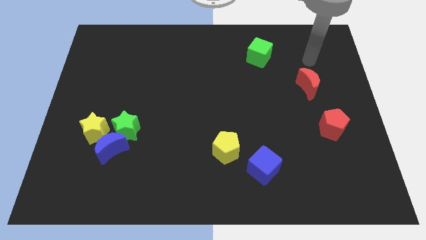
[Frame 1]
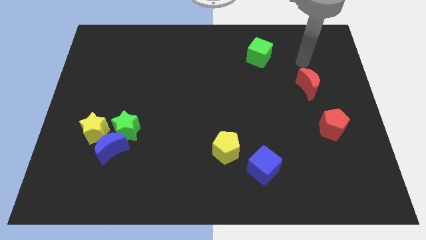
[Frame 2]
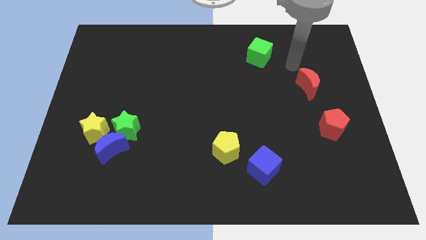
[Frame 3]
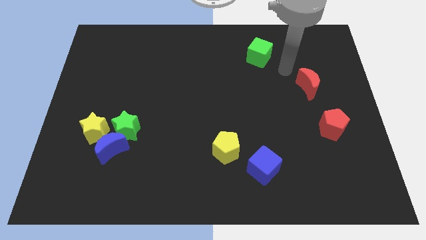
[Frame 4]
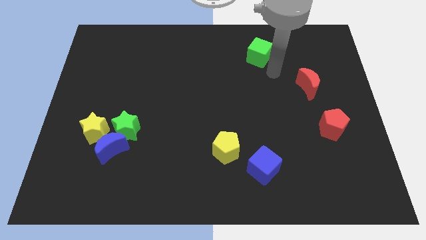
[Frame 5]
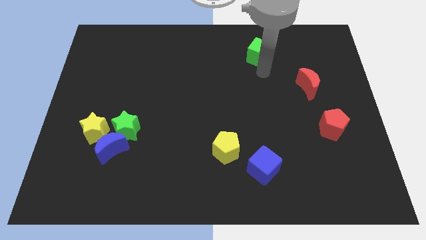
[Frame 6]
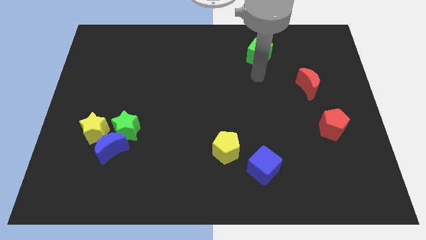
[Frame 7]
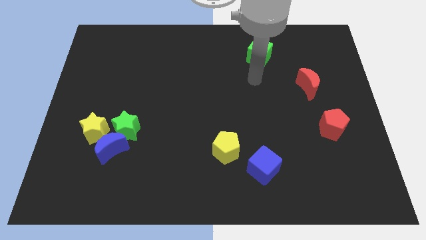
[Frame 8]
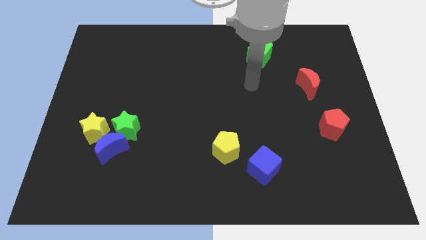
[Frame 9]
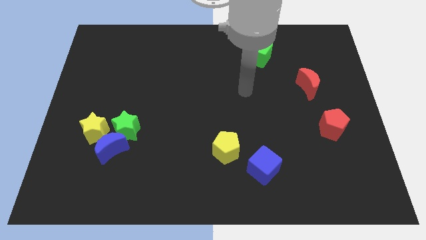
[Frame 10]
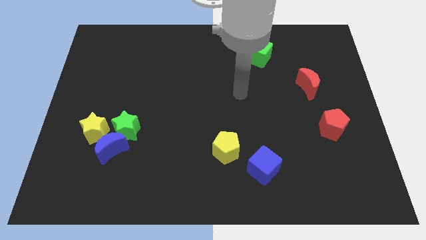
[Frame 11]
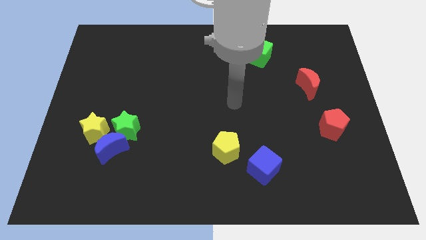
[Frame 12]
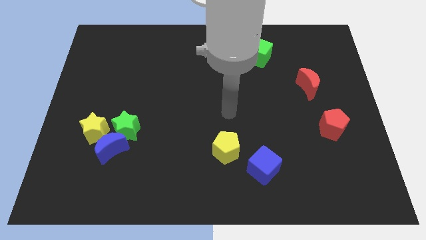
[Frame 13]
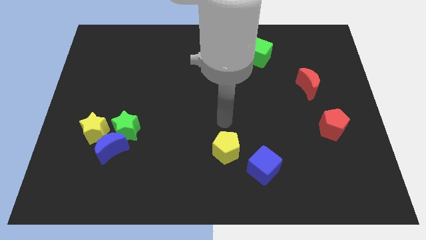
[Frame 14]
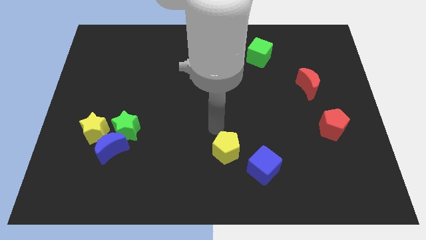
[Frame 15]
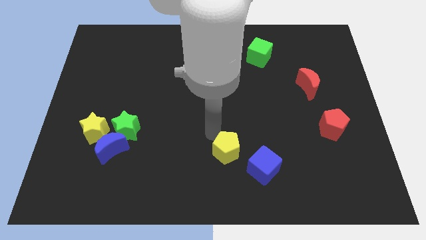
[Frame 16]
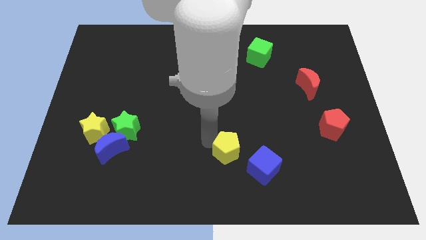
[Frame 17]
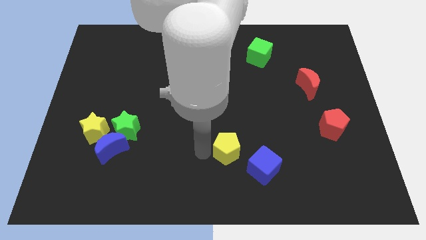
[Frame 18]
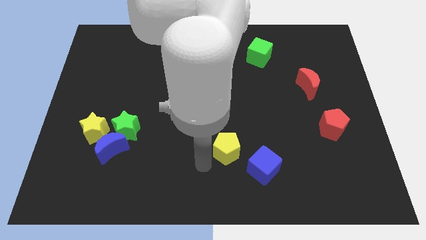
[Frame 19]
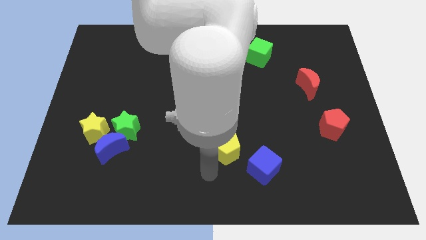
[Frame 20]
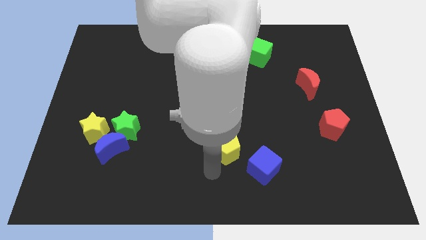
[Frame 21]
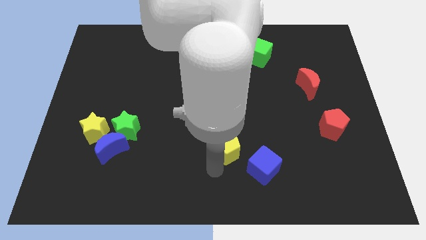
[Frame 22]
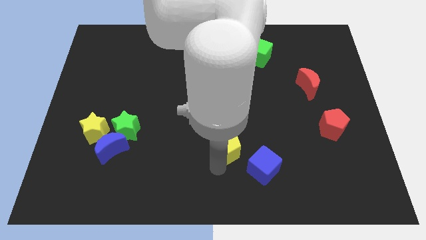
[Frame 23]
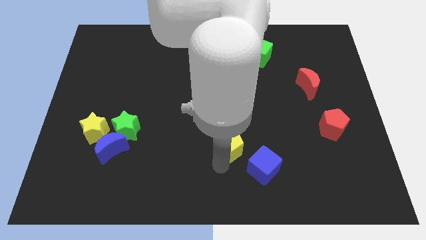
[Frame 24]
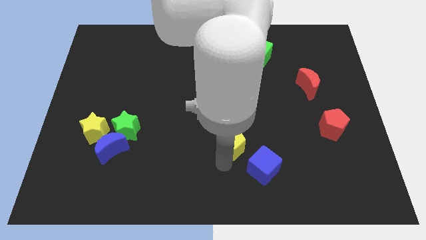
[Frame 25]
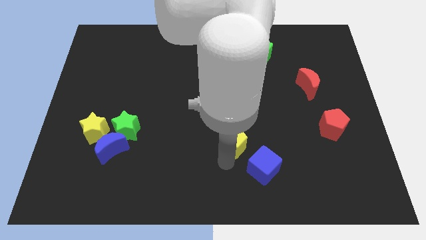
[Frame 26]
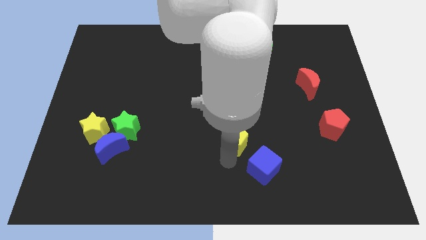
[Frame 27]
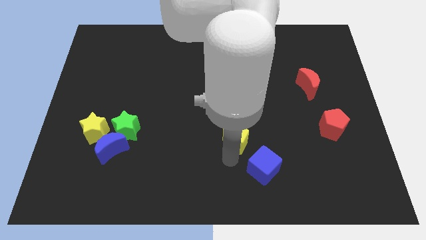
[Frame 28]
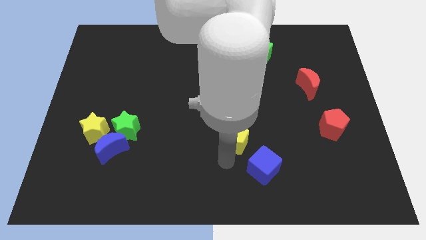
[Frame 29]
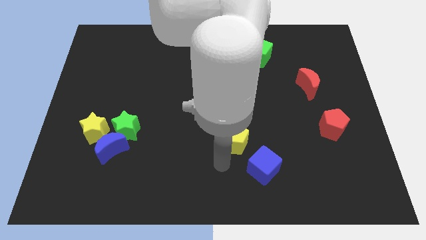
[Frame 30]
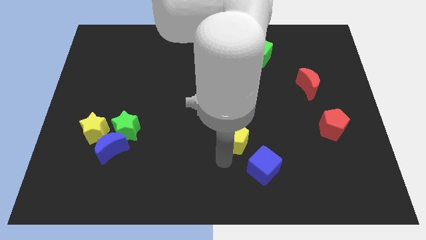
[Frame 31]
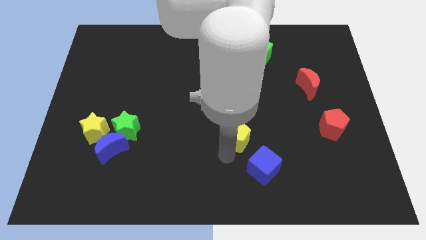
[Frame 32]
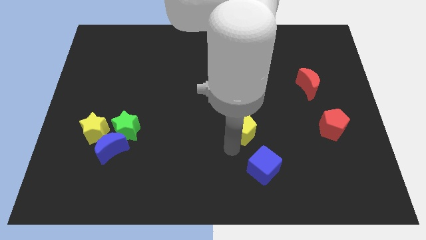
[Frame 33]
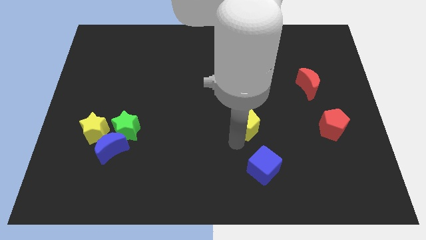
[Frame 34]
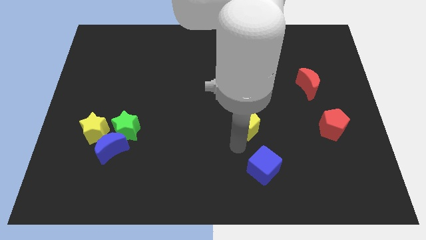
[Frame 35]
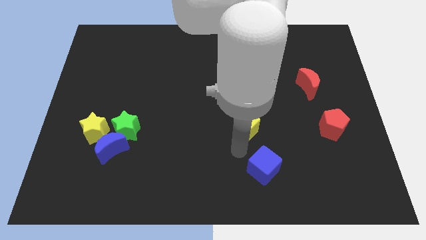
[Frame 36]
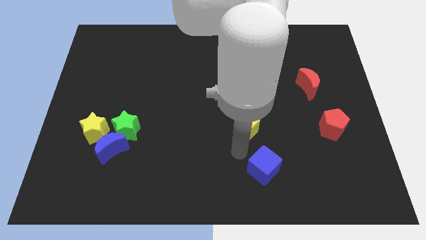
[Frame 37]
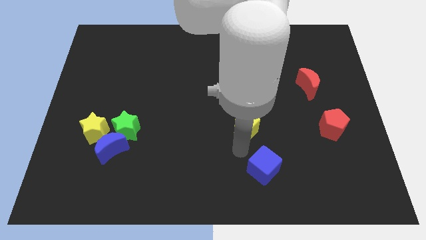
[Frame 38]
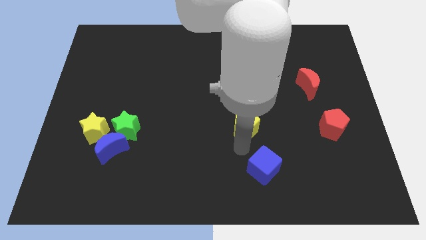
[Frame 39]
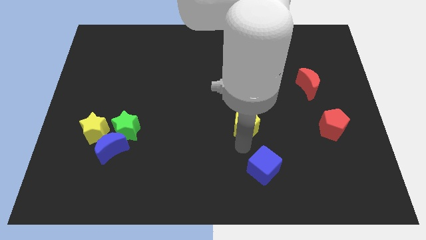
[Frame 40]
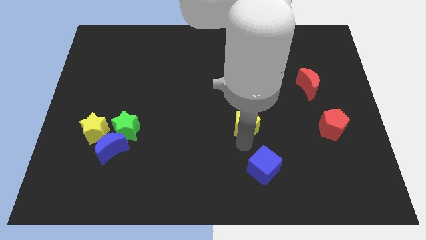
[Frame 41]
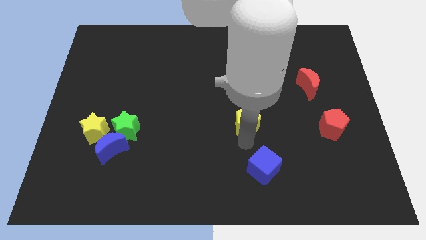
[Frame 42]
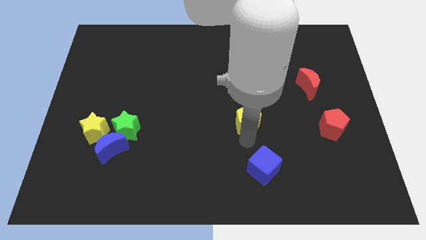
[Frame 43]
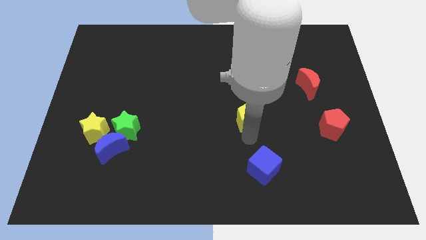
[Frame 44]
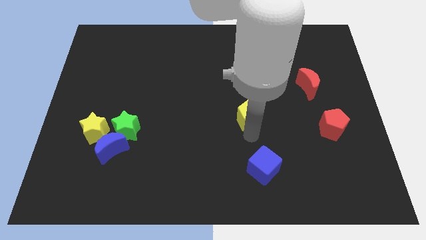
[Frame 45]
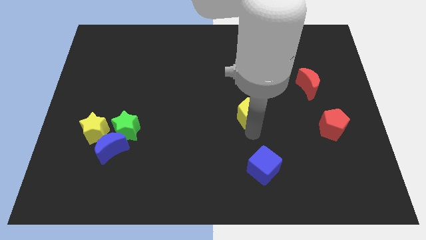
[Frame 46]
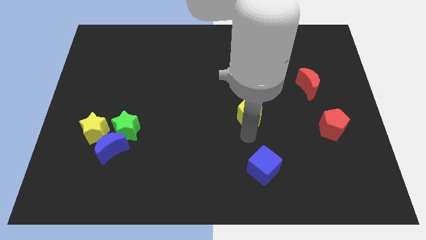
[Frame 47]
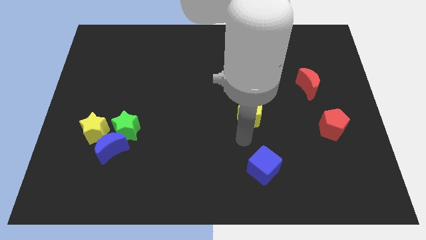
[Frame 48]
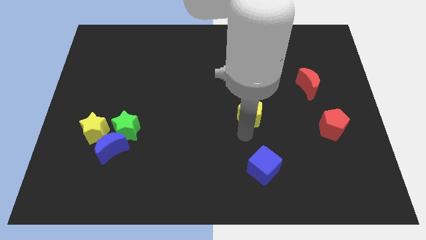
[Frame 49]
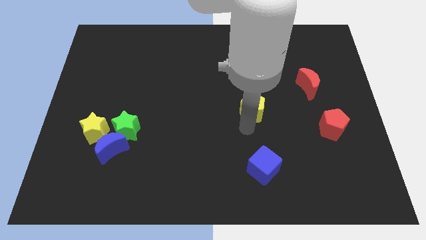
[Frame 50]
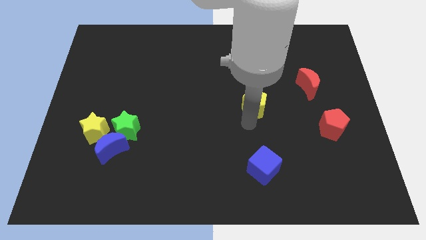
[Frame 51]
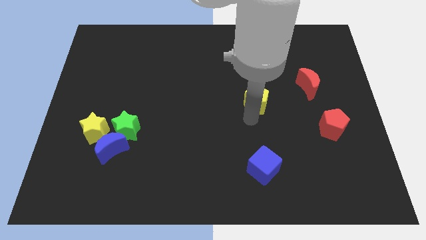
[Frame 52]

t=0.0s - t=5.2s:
push the yellow pentagon below the green cube

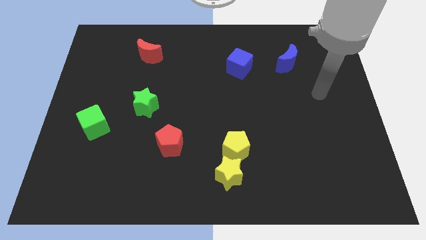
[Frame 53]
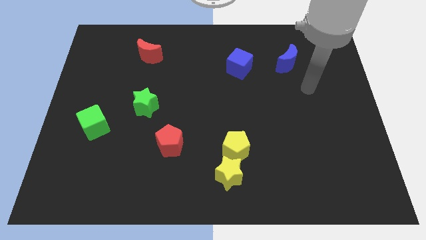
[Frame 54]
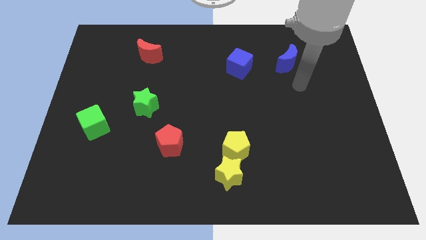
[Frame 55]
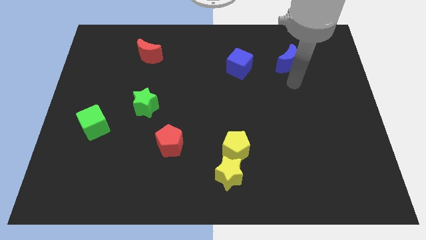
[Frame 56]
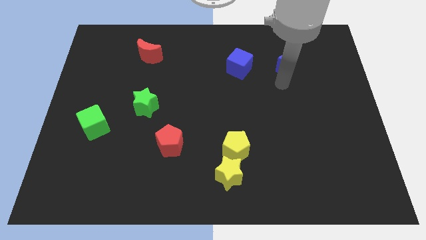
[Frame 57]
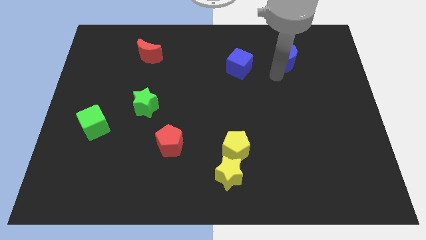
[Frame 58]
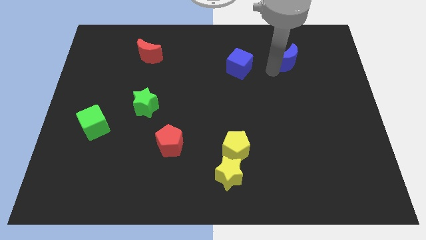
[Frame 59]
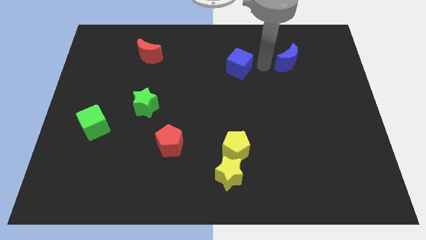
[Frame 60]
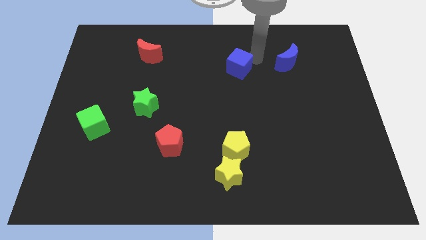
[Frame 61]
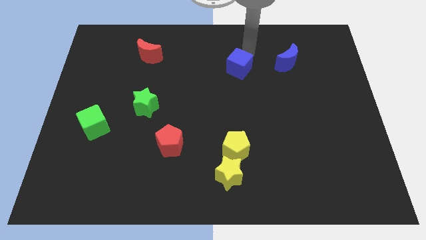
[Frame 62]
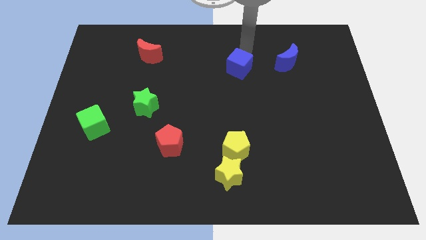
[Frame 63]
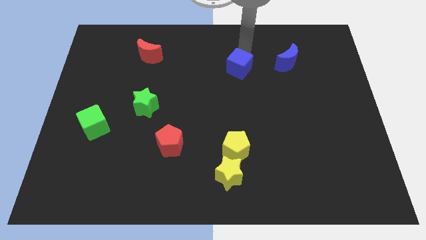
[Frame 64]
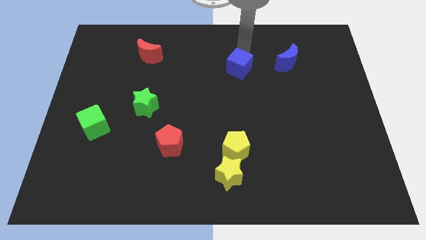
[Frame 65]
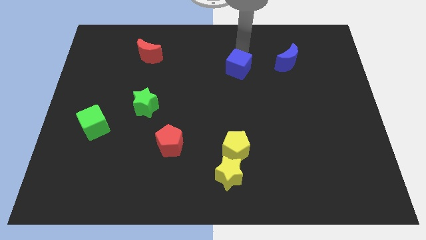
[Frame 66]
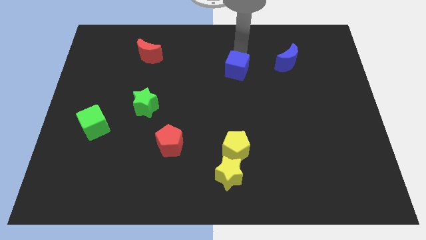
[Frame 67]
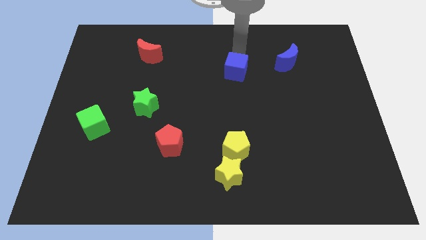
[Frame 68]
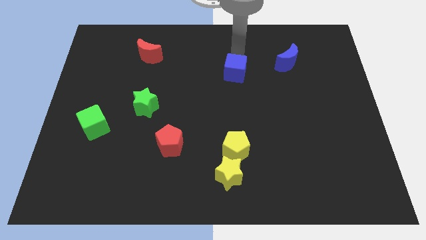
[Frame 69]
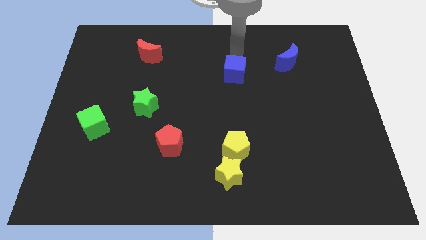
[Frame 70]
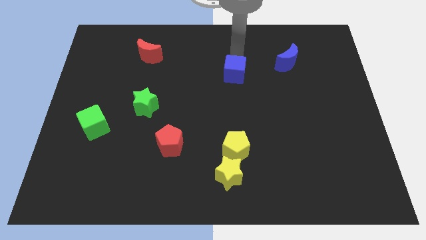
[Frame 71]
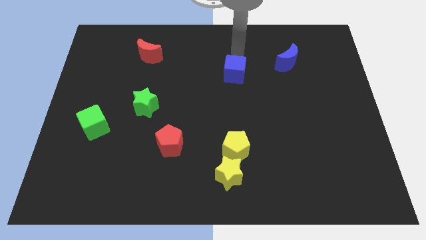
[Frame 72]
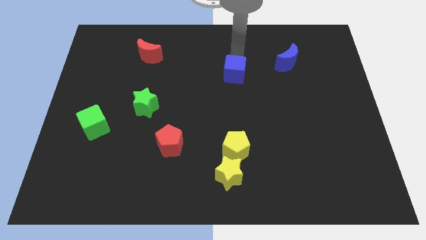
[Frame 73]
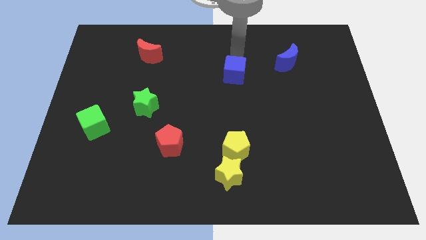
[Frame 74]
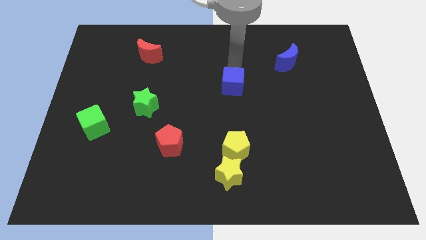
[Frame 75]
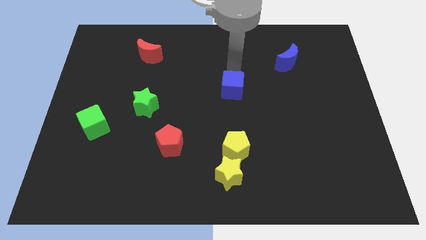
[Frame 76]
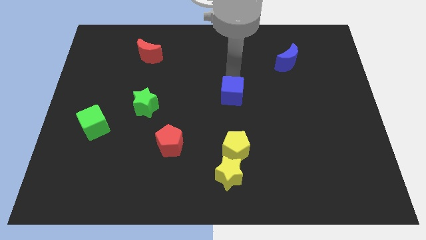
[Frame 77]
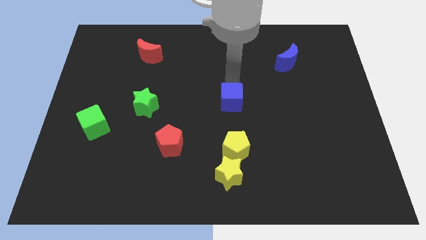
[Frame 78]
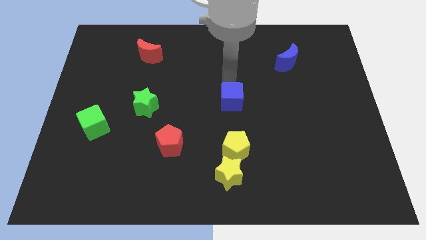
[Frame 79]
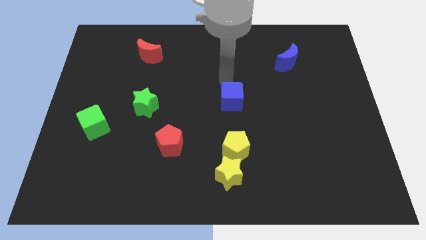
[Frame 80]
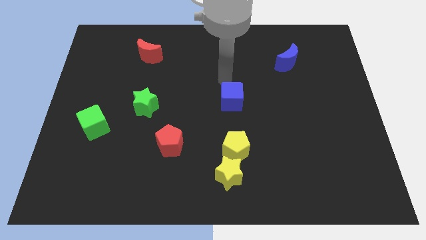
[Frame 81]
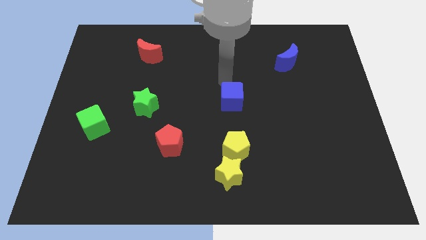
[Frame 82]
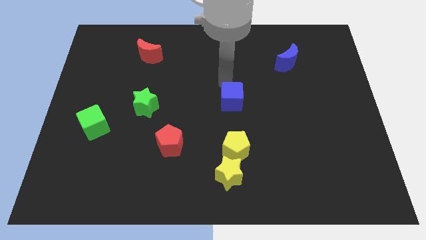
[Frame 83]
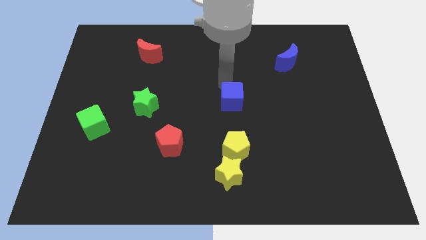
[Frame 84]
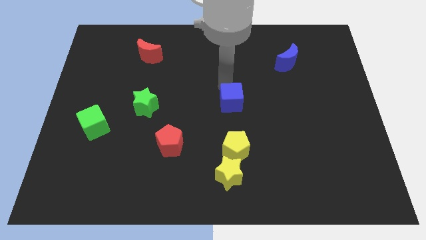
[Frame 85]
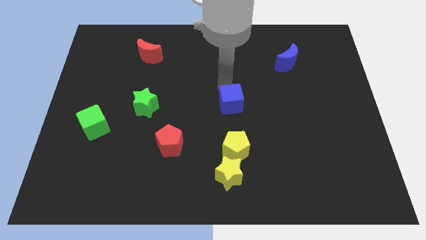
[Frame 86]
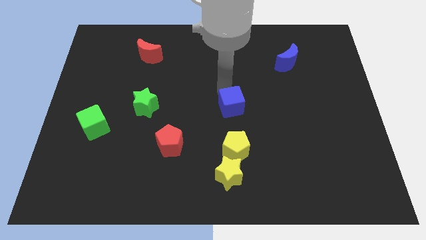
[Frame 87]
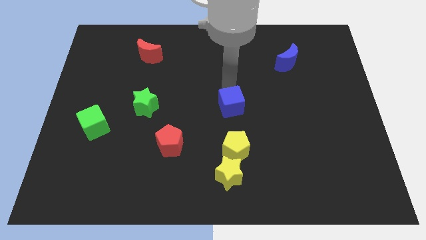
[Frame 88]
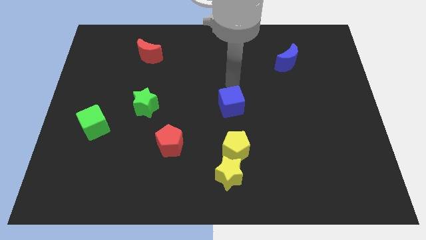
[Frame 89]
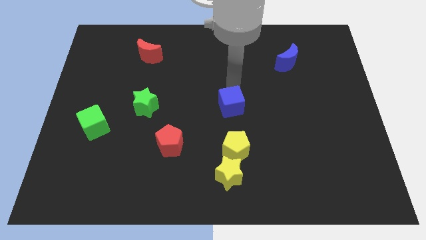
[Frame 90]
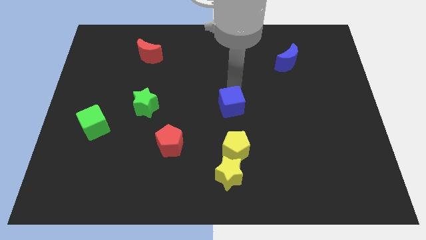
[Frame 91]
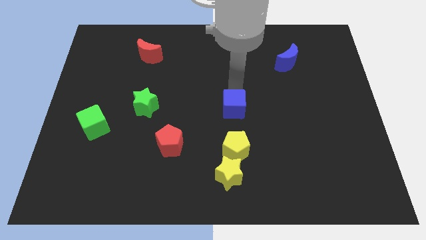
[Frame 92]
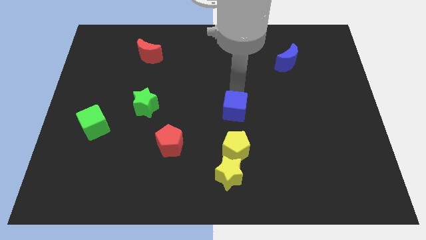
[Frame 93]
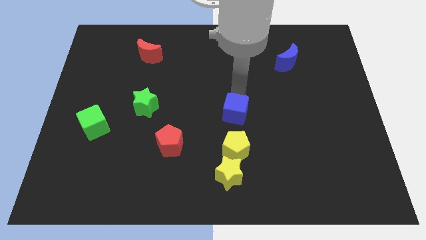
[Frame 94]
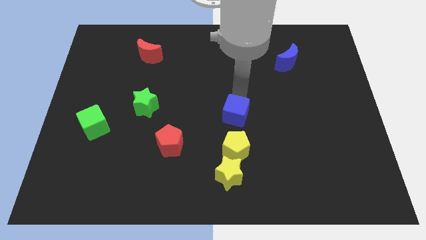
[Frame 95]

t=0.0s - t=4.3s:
push the blue cube to the top side of the yellow star
